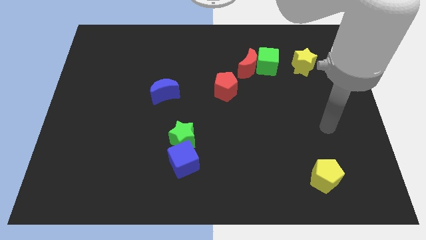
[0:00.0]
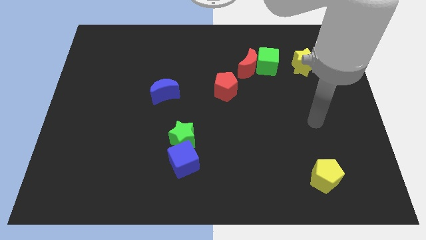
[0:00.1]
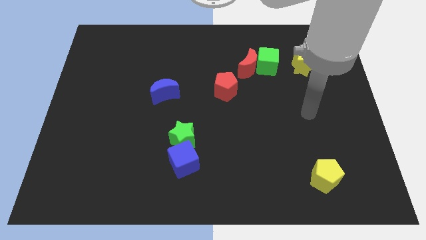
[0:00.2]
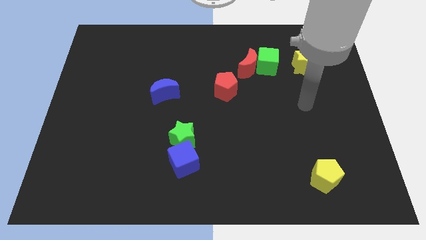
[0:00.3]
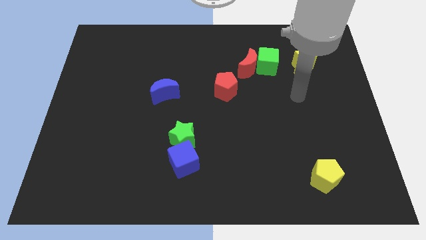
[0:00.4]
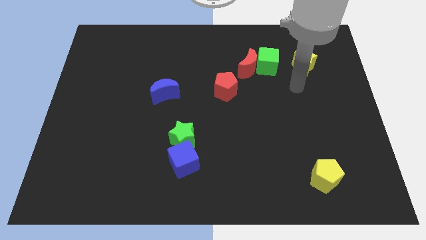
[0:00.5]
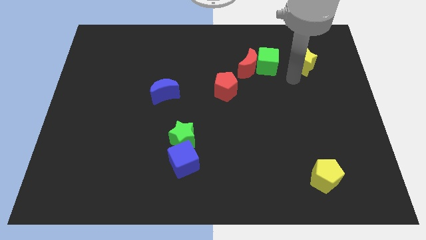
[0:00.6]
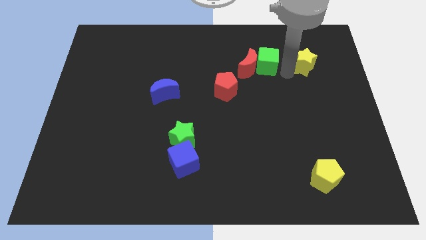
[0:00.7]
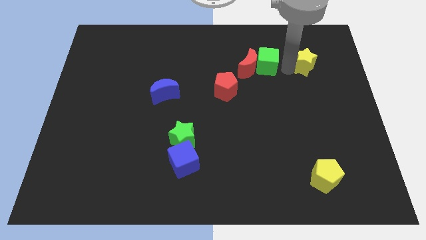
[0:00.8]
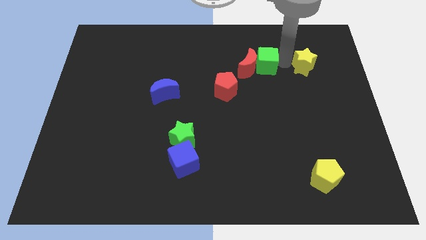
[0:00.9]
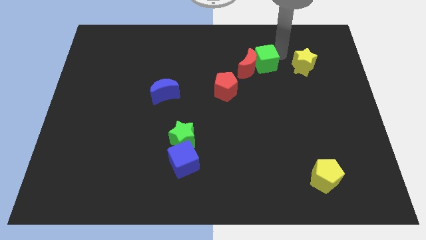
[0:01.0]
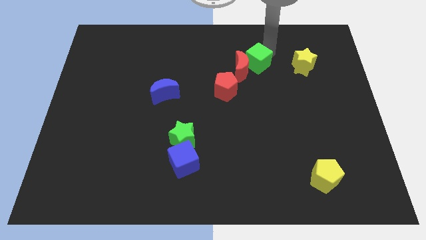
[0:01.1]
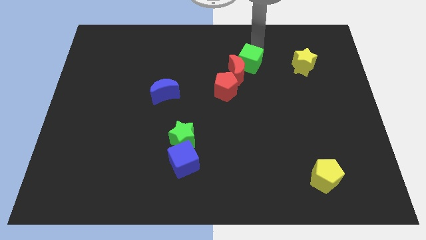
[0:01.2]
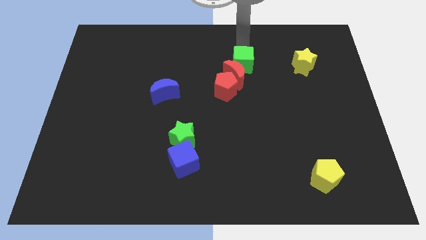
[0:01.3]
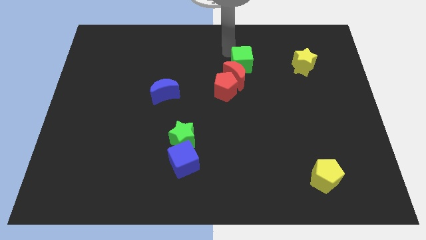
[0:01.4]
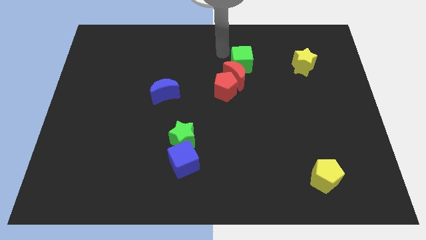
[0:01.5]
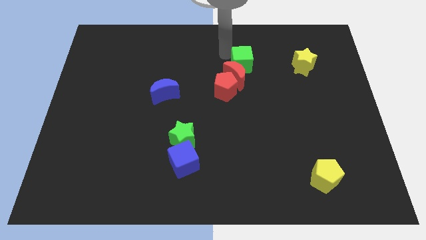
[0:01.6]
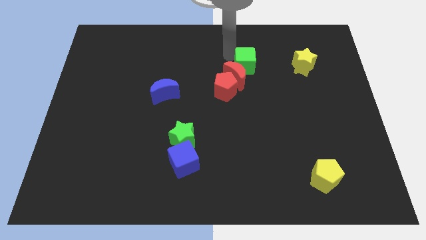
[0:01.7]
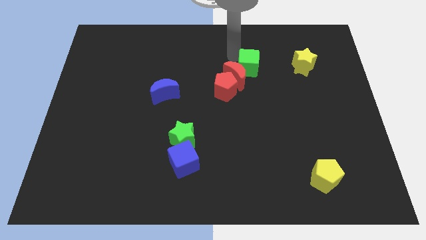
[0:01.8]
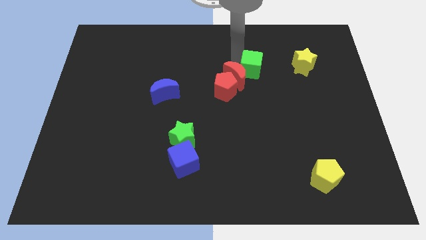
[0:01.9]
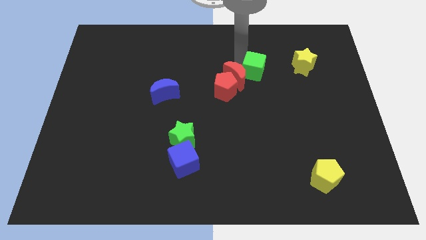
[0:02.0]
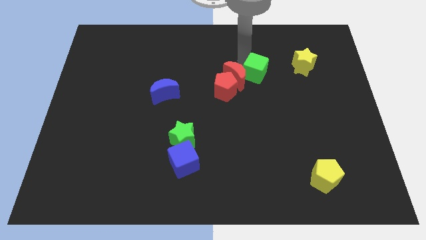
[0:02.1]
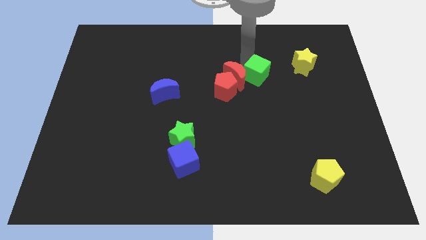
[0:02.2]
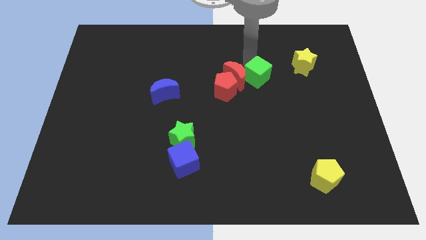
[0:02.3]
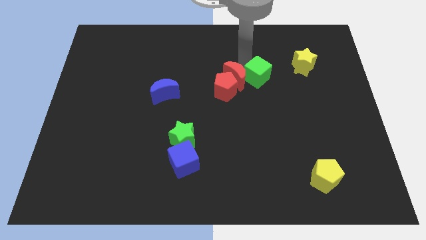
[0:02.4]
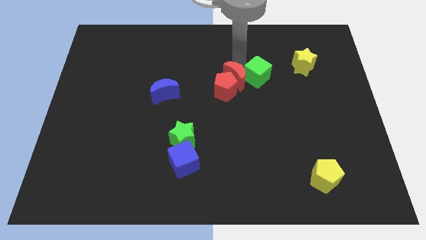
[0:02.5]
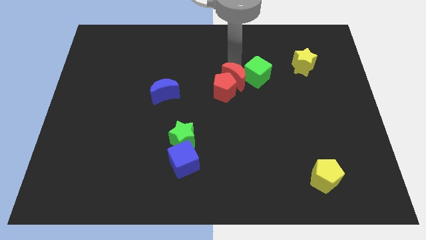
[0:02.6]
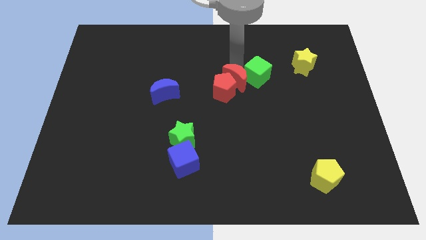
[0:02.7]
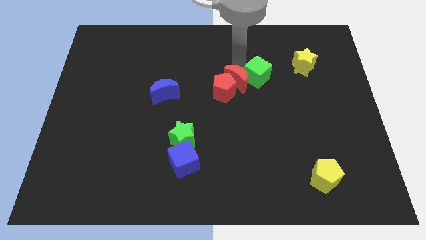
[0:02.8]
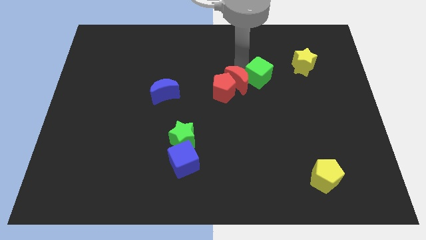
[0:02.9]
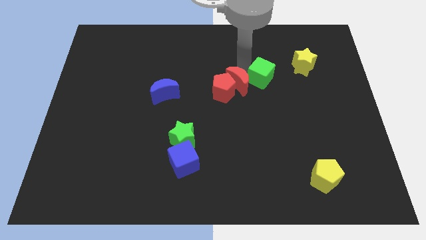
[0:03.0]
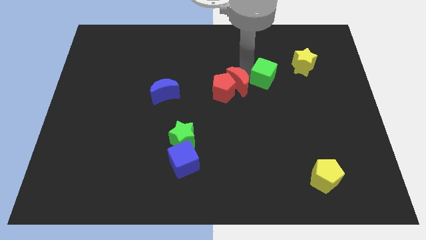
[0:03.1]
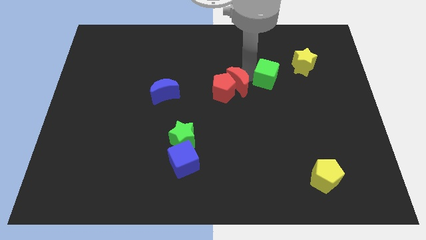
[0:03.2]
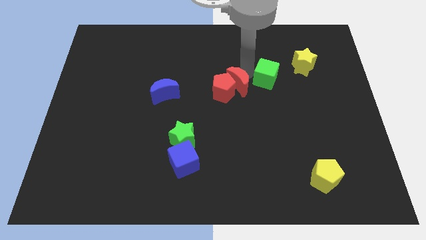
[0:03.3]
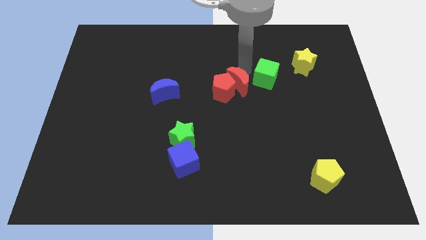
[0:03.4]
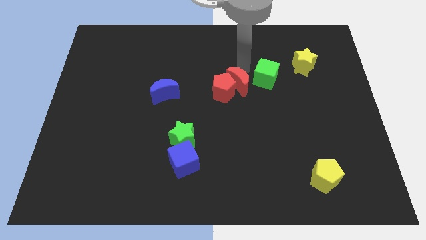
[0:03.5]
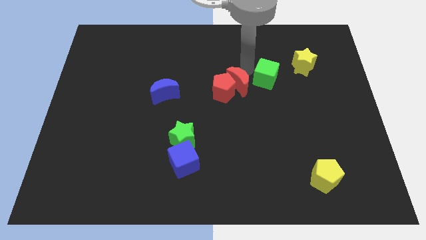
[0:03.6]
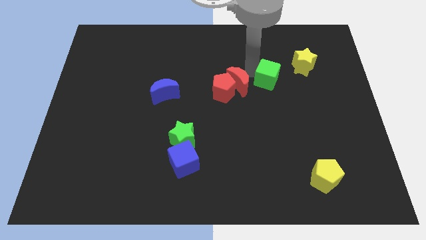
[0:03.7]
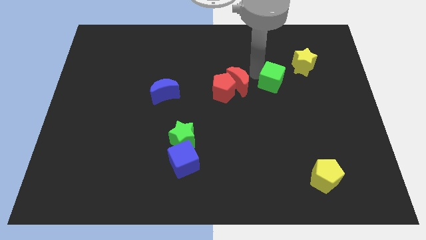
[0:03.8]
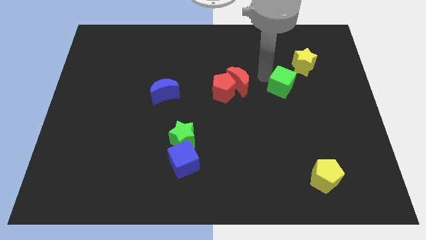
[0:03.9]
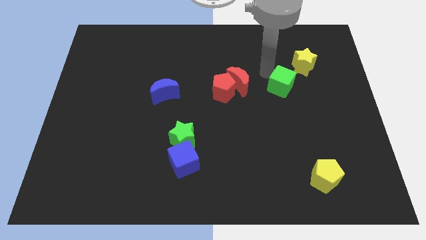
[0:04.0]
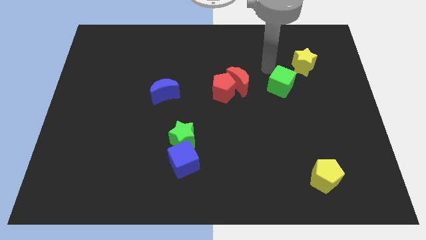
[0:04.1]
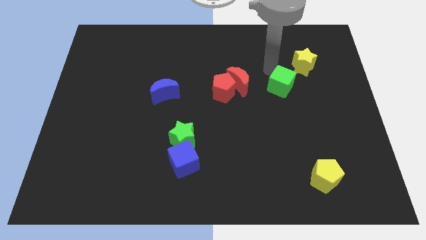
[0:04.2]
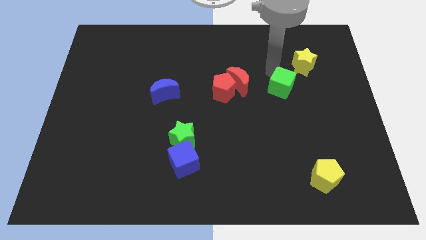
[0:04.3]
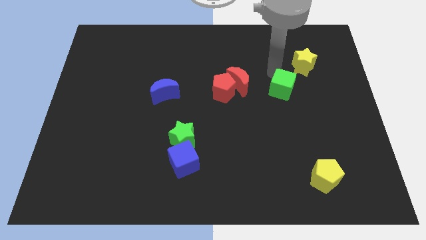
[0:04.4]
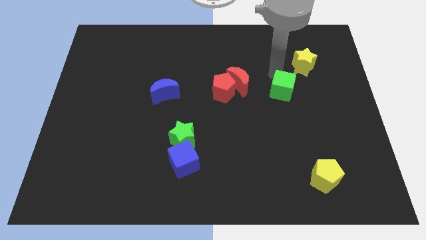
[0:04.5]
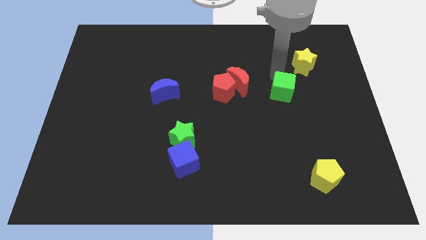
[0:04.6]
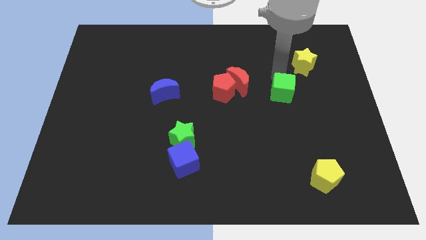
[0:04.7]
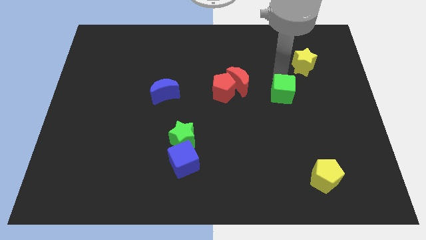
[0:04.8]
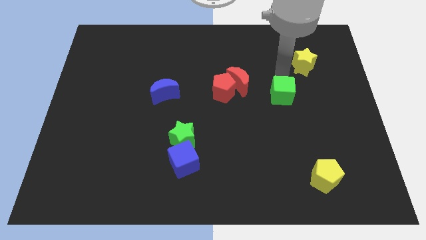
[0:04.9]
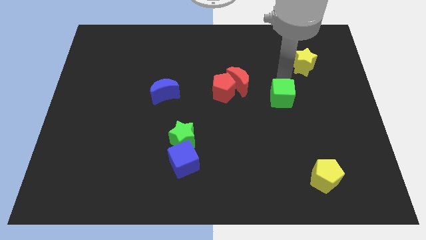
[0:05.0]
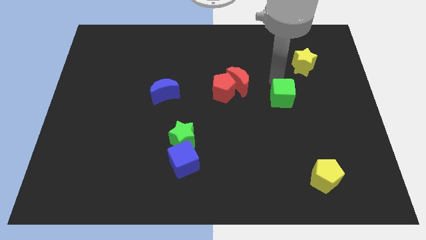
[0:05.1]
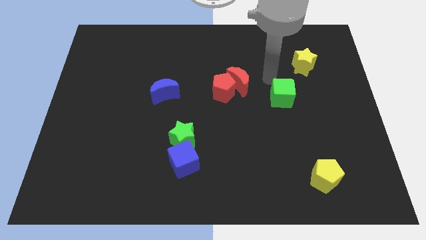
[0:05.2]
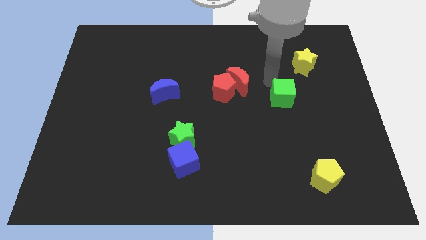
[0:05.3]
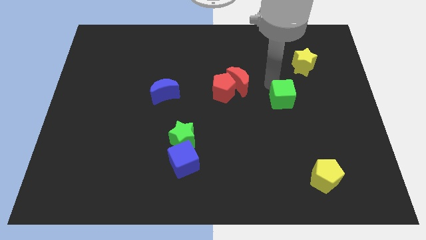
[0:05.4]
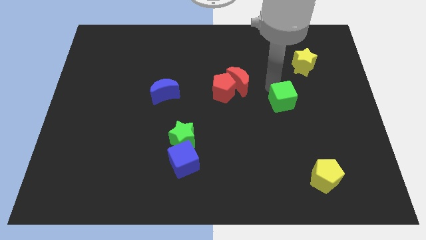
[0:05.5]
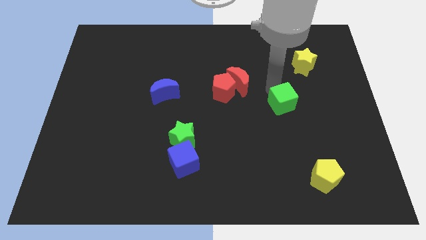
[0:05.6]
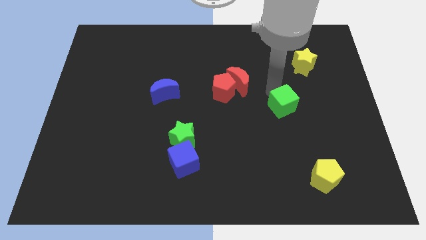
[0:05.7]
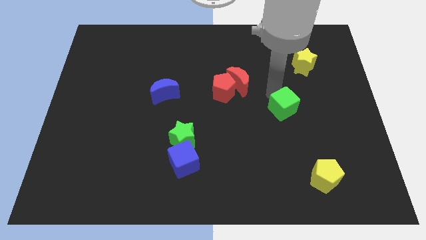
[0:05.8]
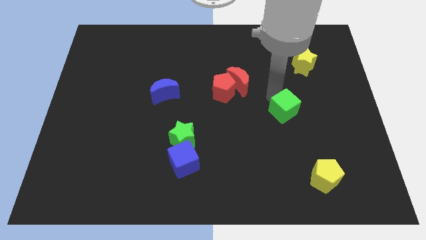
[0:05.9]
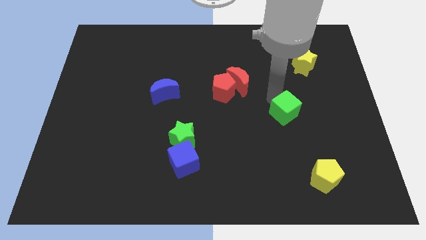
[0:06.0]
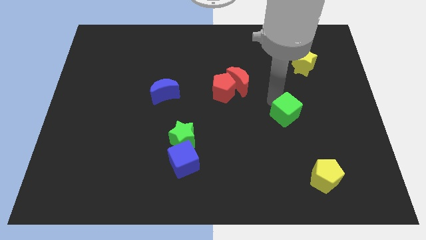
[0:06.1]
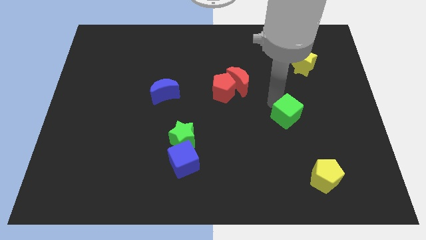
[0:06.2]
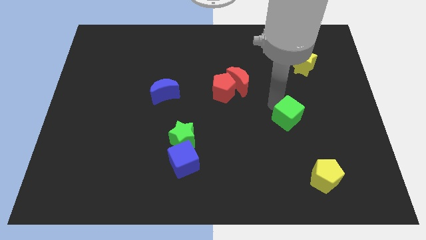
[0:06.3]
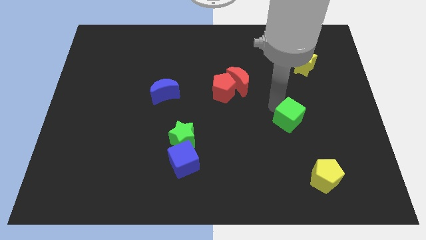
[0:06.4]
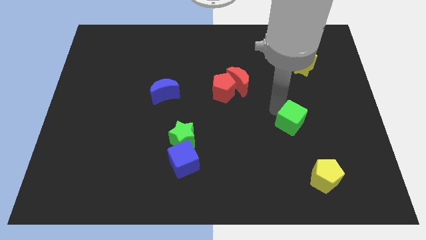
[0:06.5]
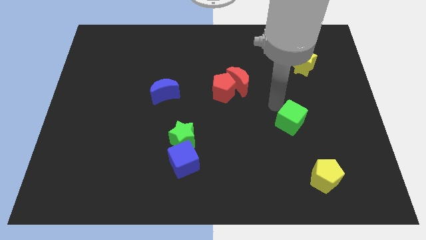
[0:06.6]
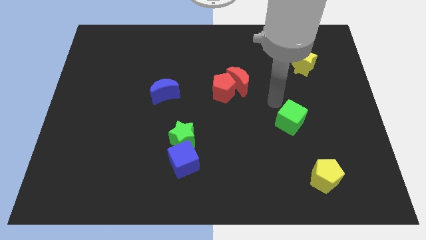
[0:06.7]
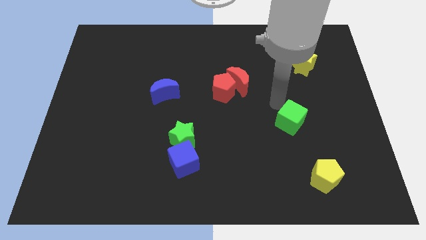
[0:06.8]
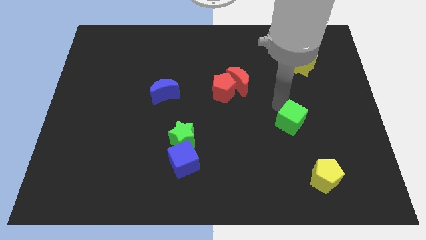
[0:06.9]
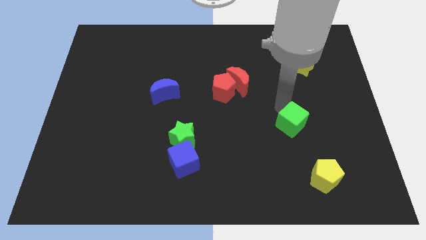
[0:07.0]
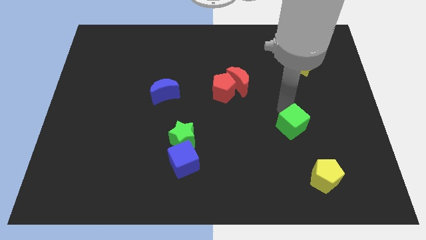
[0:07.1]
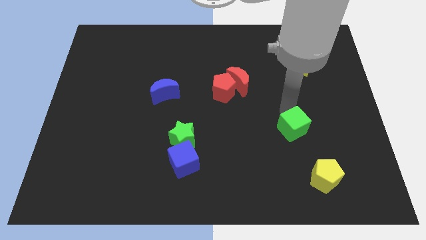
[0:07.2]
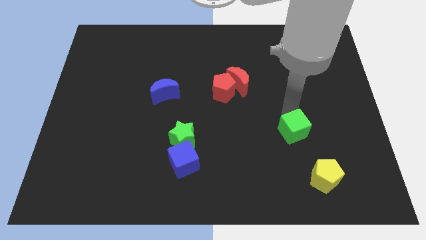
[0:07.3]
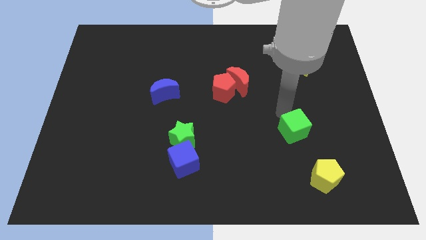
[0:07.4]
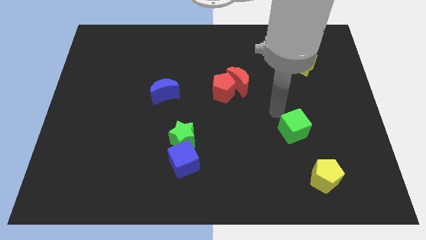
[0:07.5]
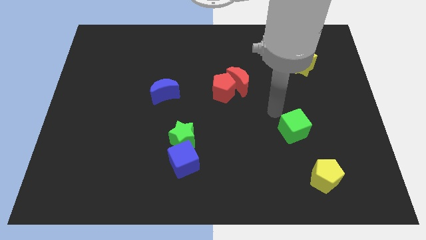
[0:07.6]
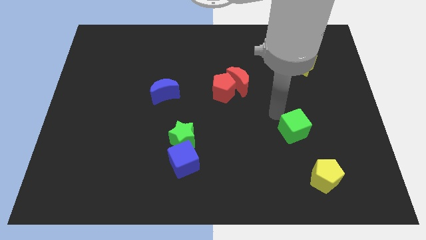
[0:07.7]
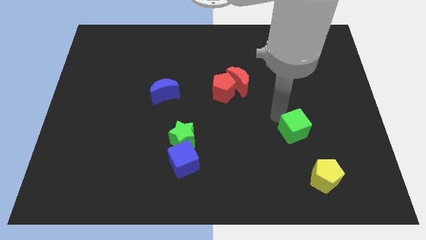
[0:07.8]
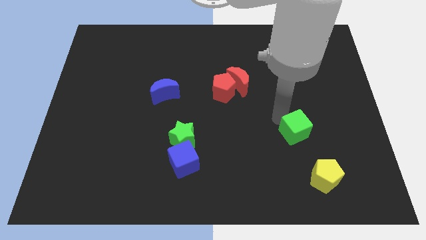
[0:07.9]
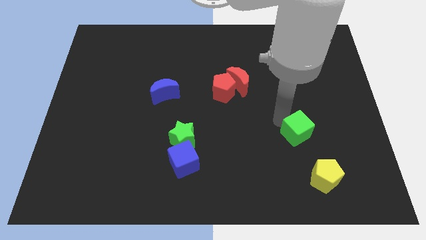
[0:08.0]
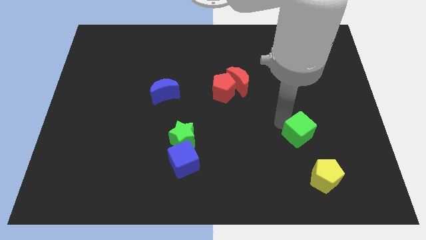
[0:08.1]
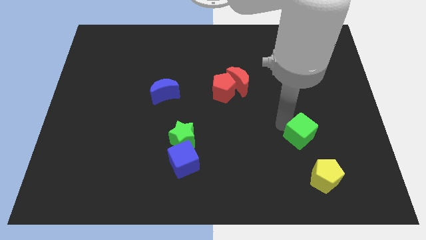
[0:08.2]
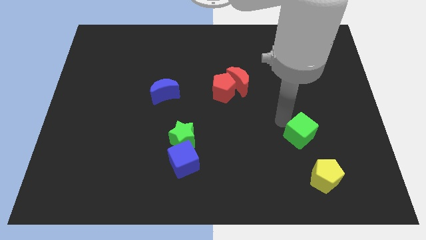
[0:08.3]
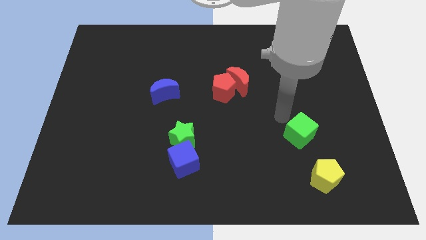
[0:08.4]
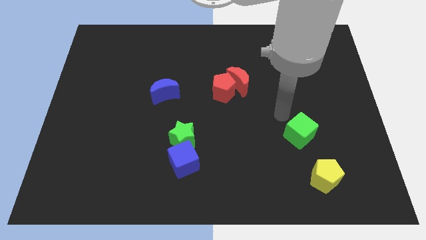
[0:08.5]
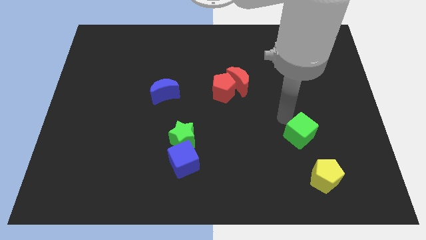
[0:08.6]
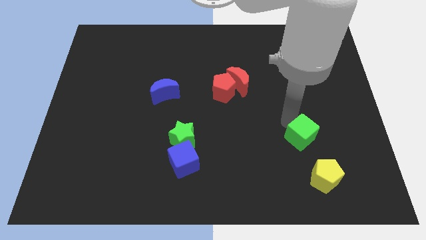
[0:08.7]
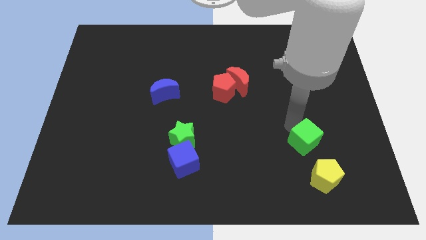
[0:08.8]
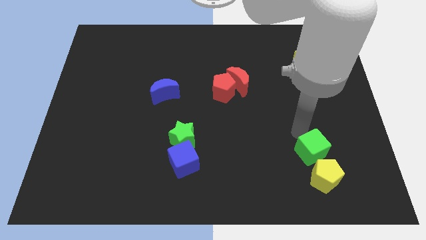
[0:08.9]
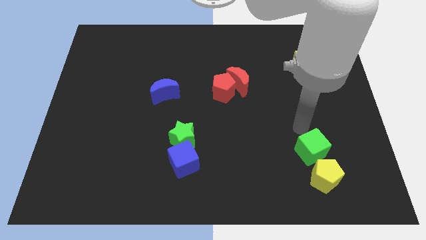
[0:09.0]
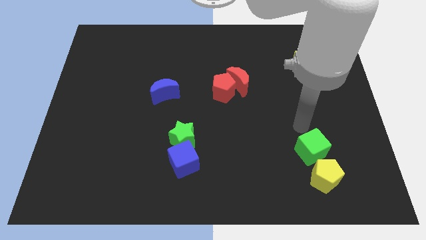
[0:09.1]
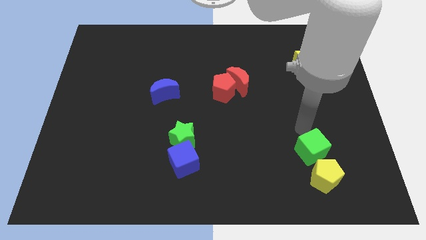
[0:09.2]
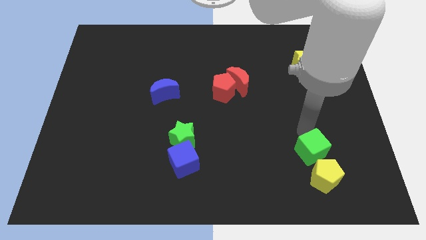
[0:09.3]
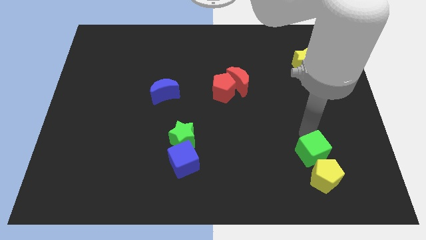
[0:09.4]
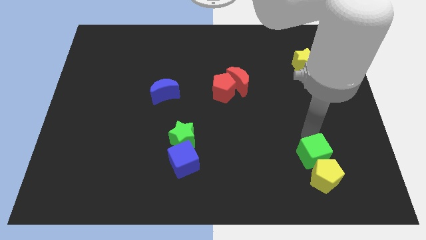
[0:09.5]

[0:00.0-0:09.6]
move the green cube to the yellow pentagon
